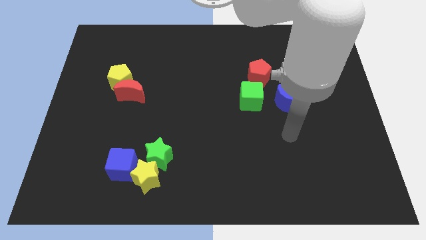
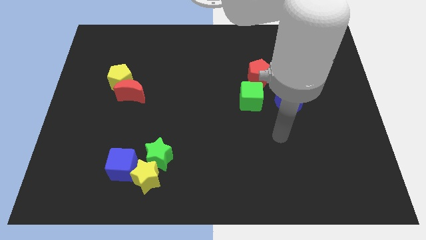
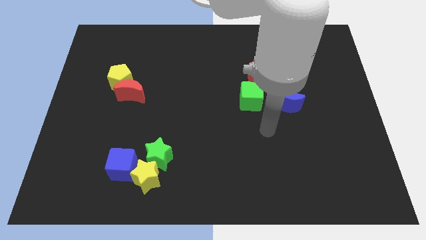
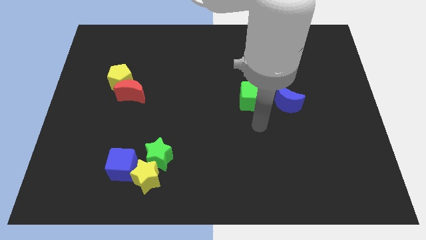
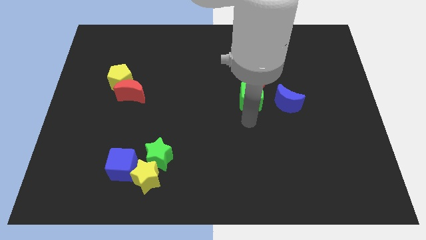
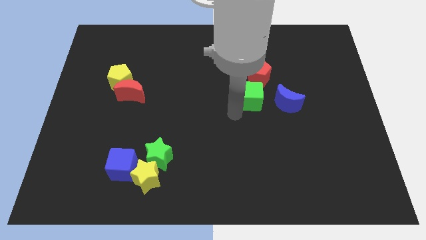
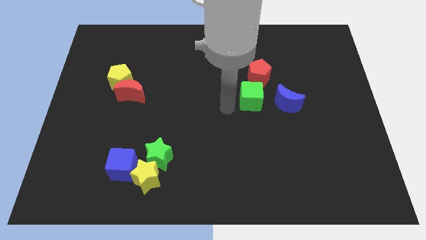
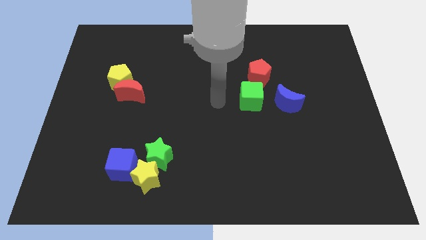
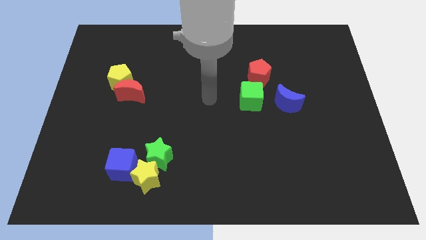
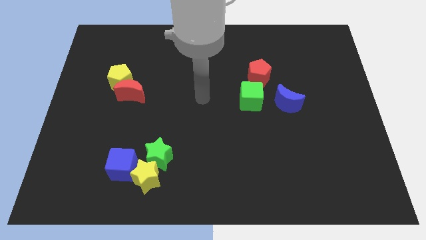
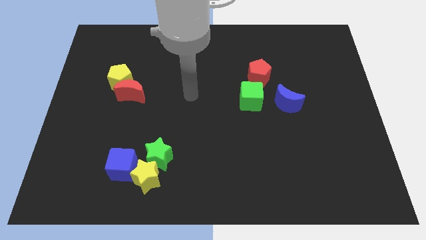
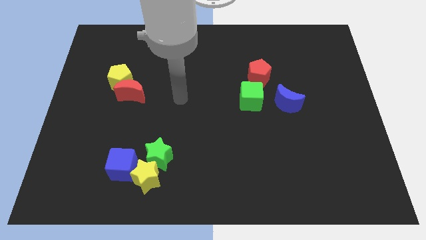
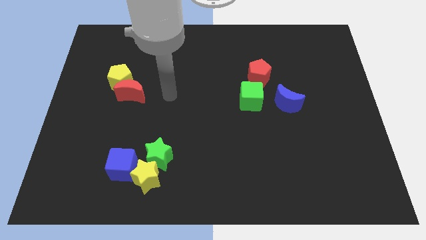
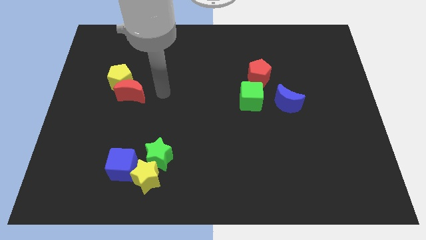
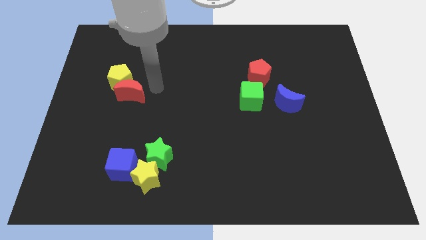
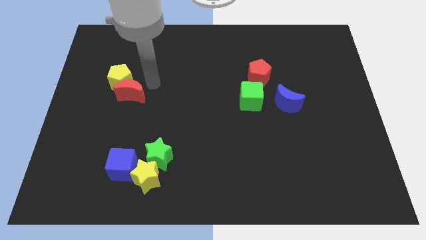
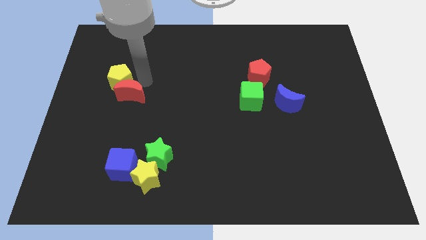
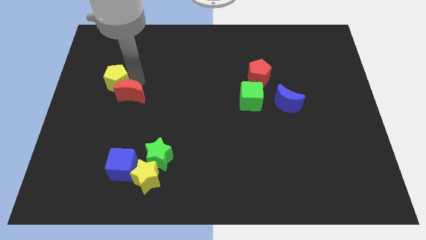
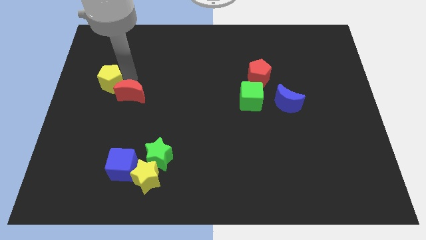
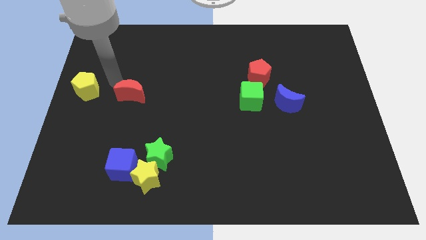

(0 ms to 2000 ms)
separate the red moon from the yellow pentagon

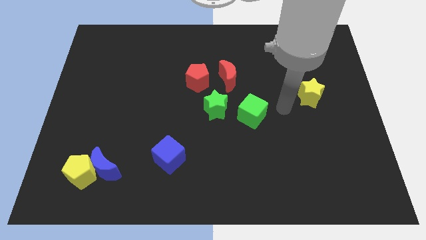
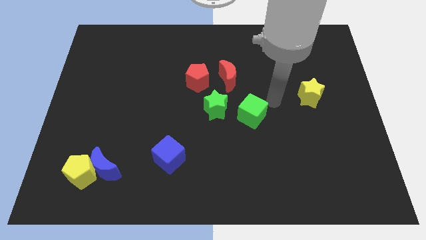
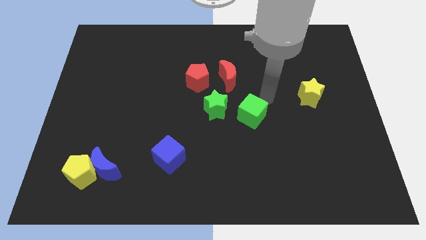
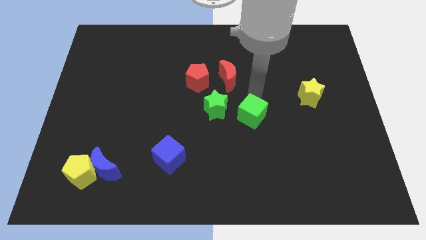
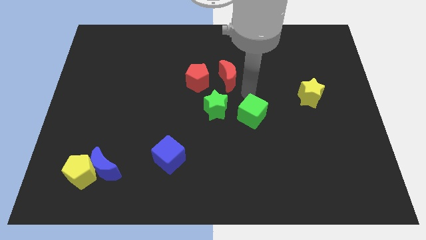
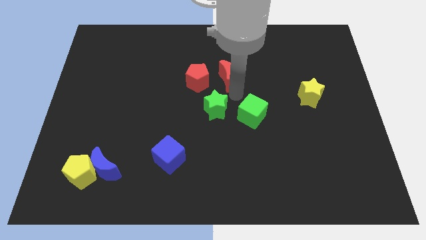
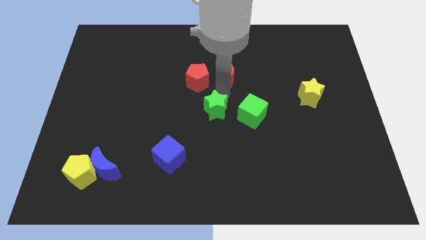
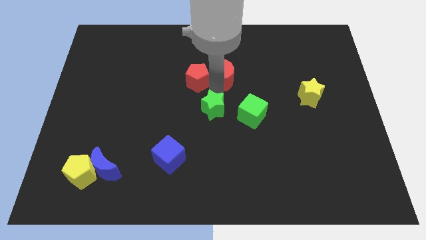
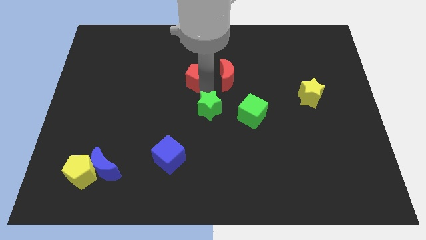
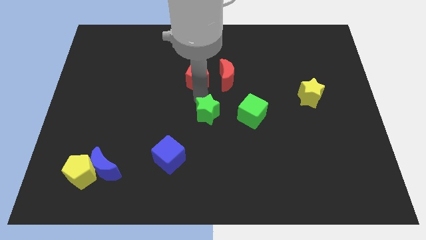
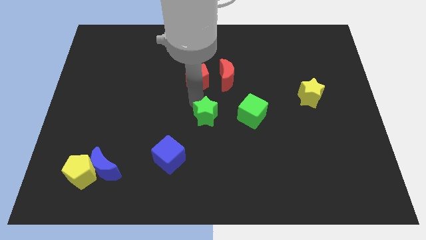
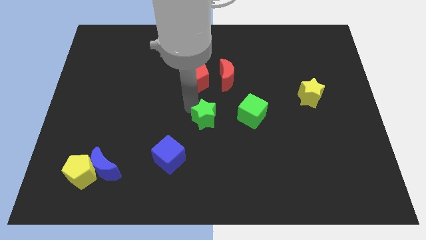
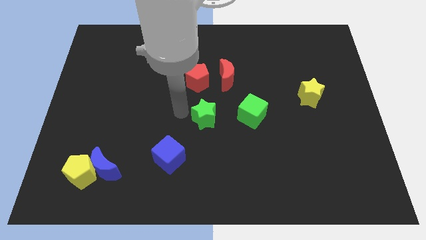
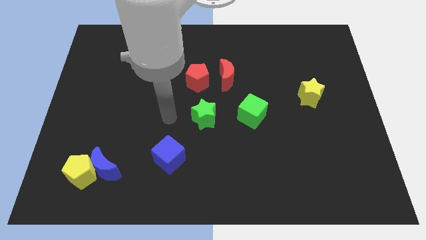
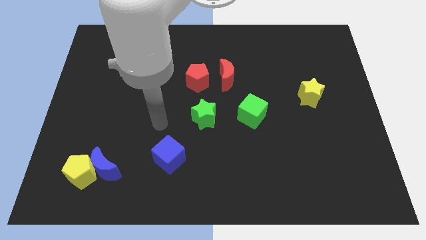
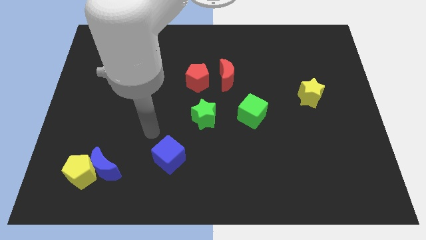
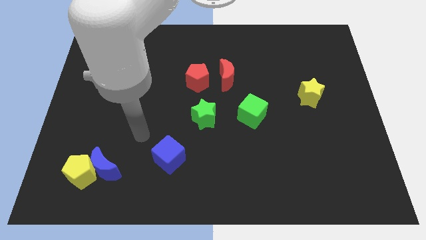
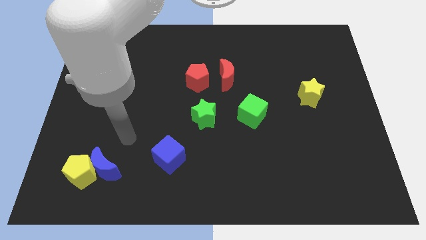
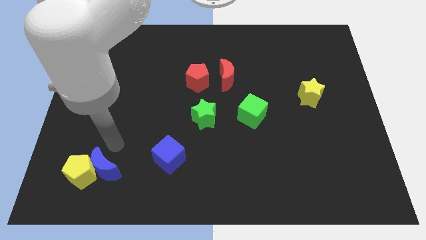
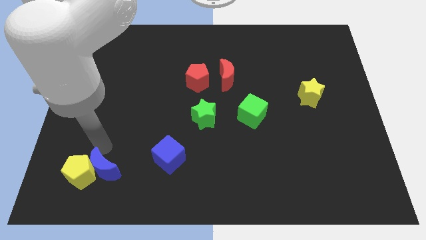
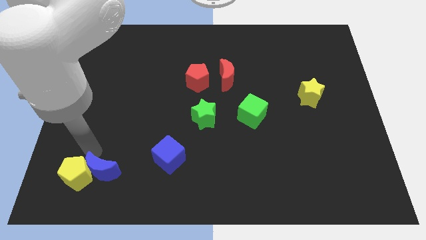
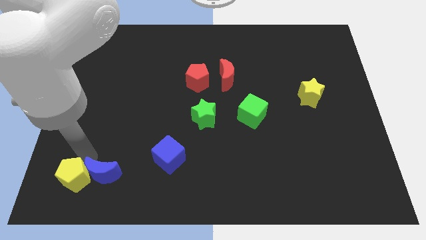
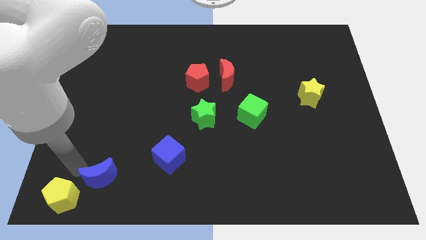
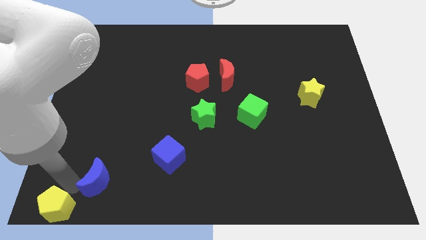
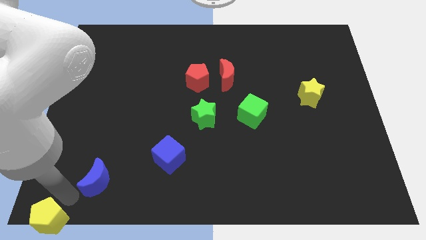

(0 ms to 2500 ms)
pull the blue moon apart from the yellow pentagon

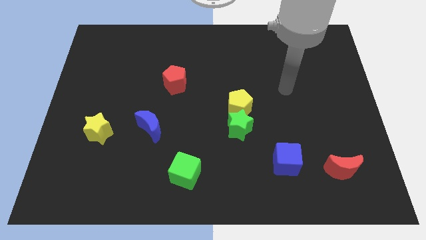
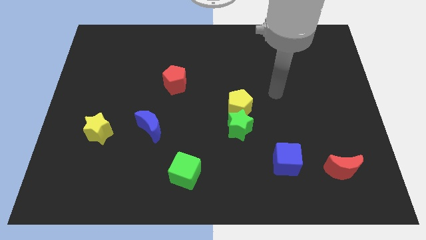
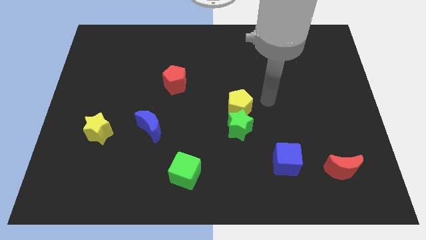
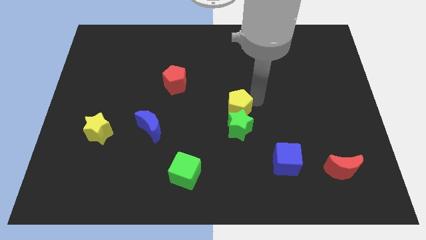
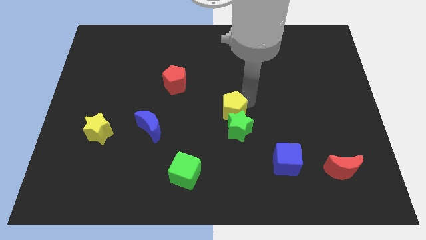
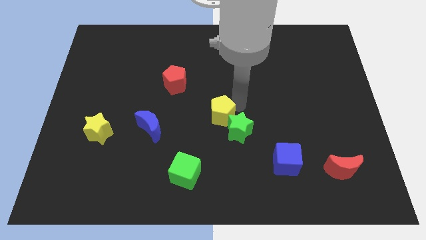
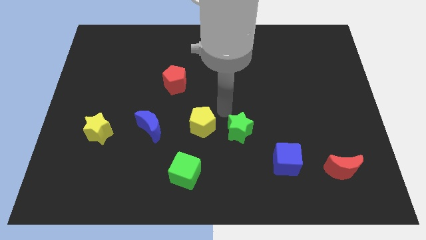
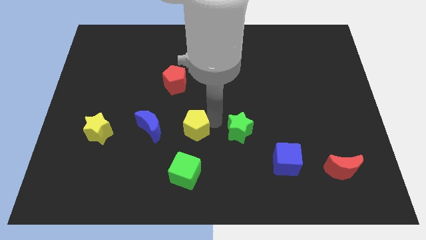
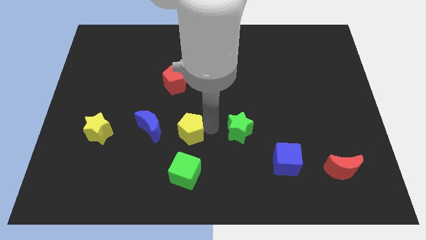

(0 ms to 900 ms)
move the green star away from the yellow pentagon

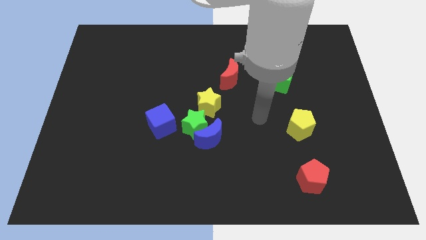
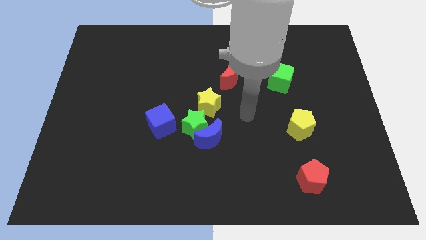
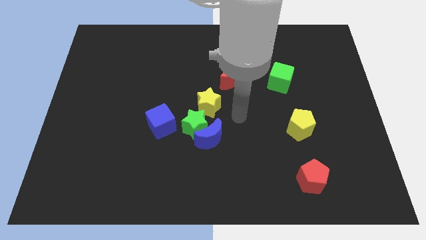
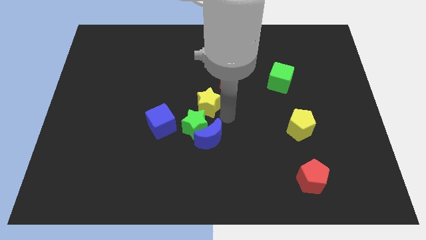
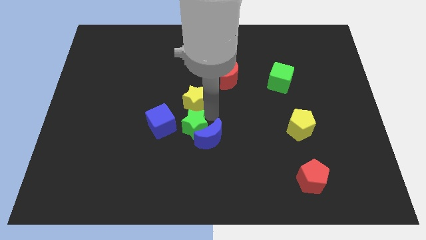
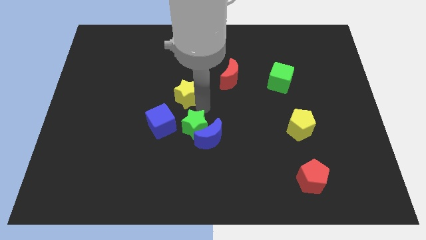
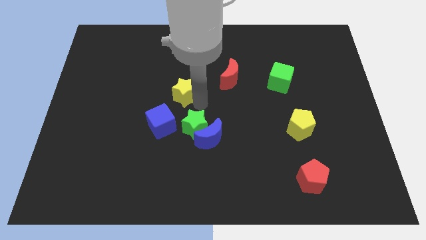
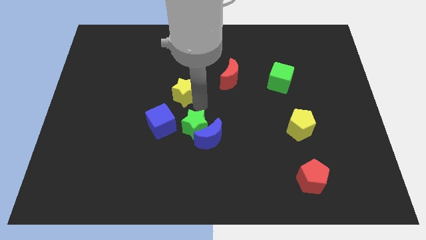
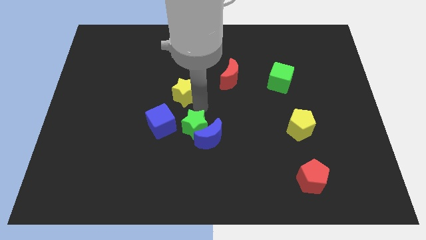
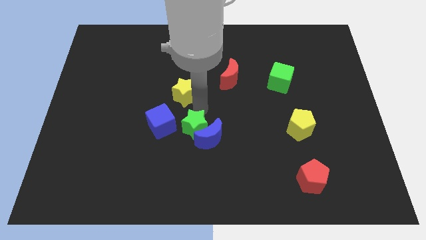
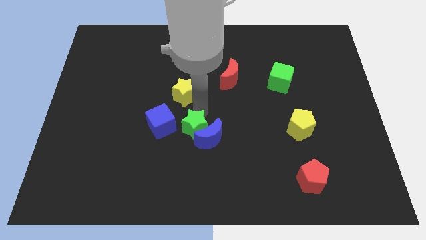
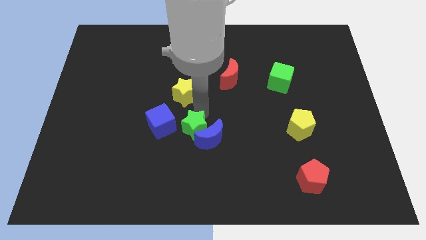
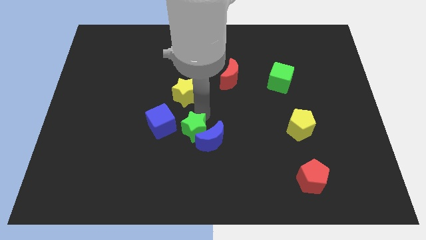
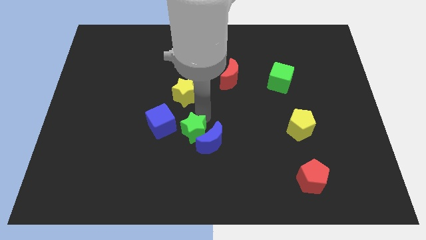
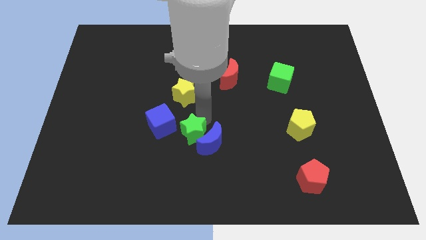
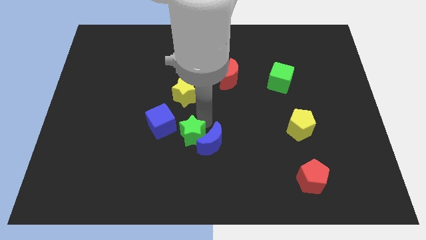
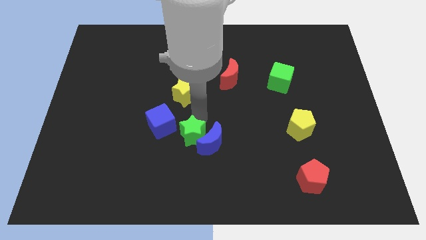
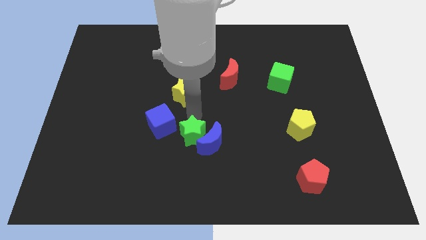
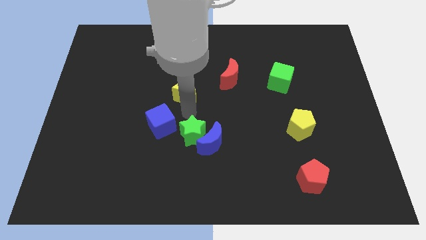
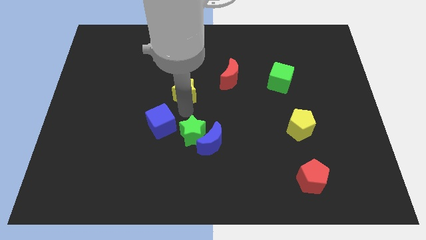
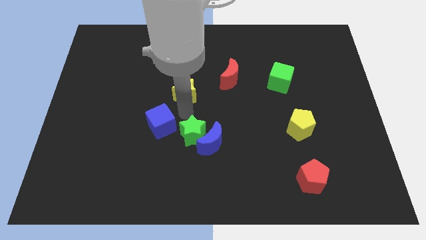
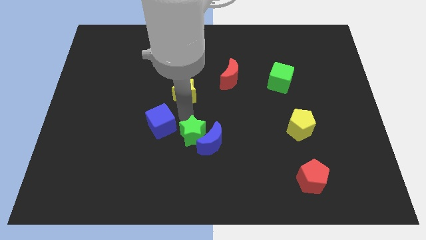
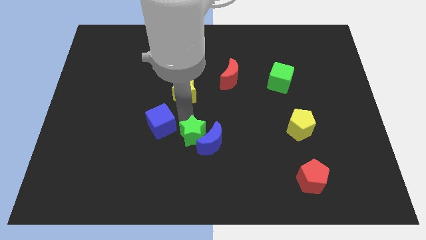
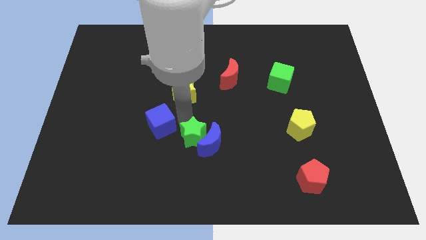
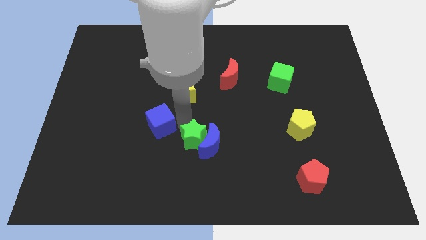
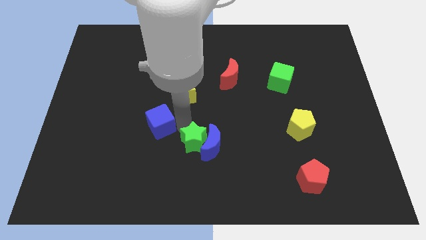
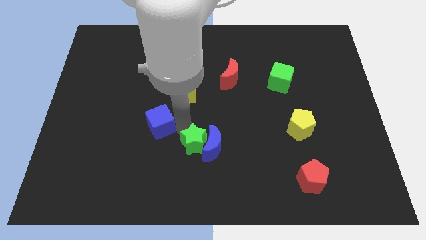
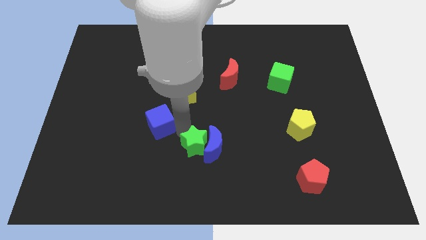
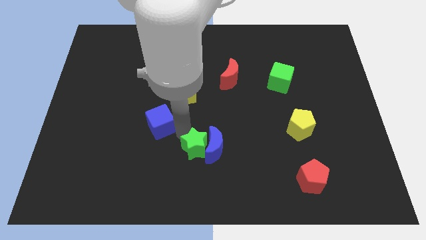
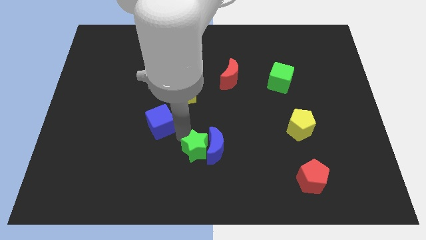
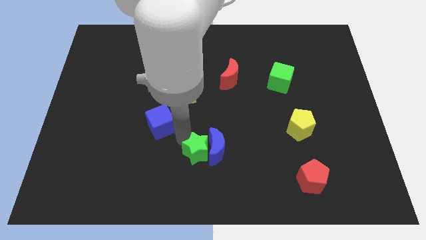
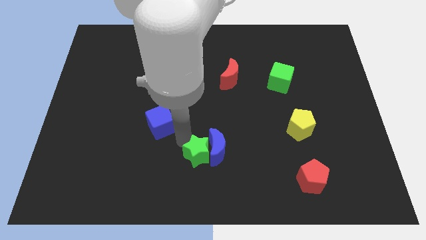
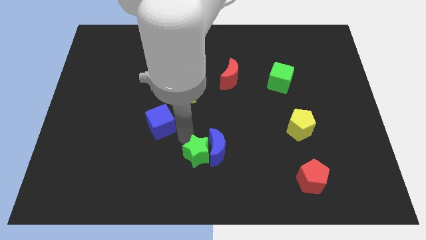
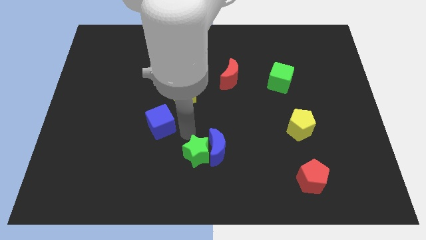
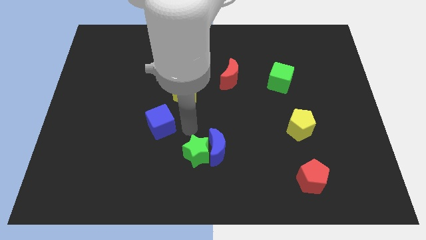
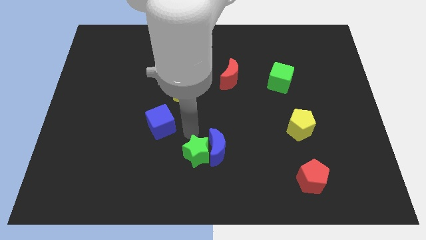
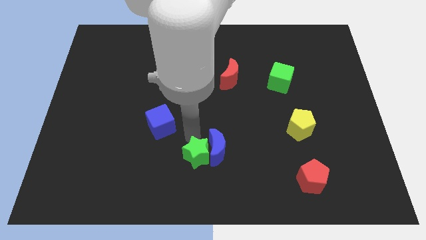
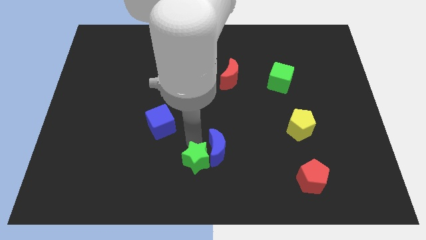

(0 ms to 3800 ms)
move the green star away from the blue moon, yellow star, and blue cube

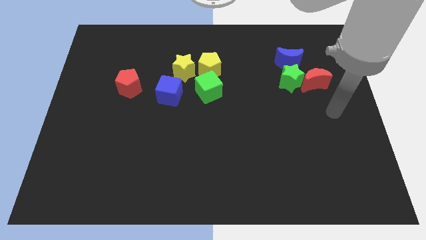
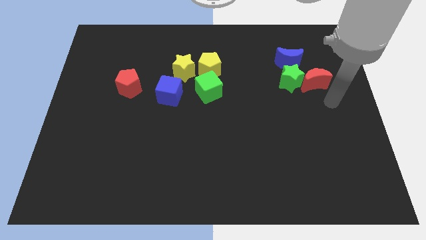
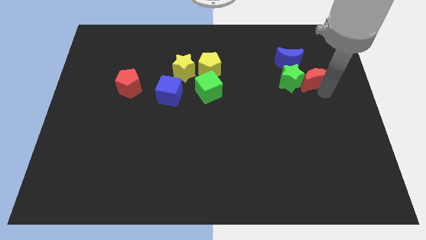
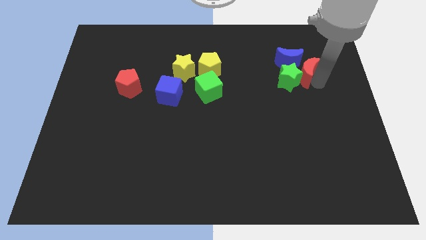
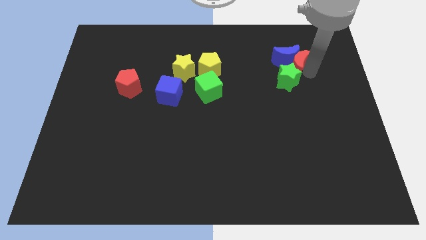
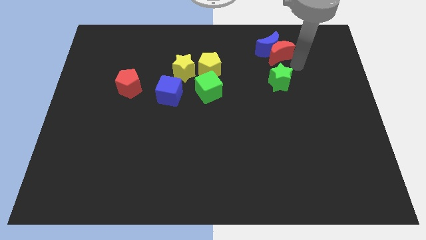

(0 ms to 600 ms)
pull the green star apart from the red moon and blue moon
